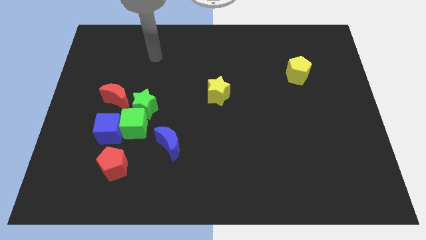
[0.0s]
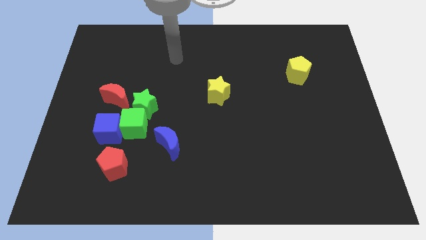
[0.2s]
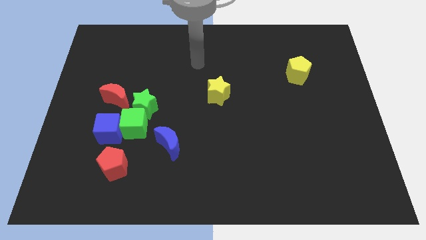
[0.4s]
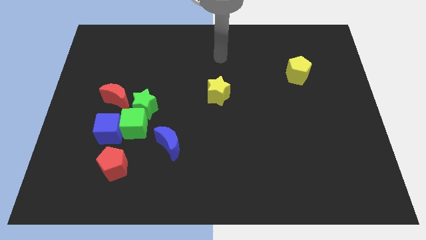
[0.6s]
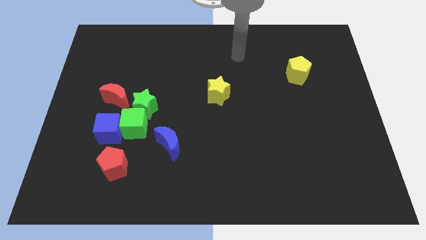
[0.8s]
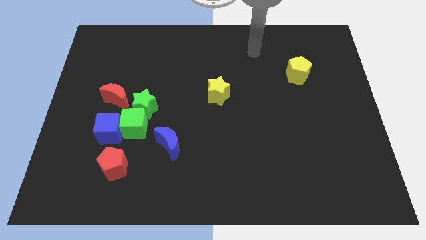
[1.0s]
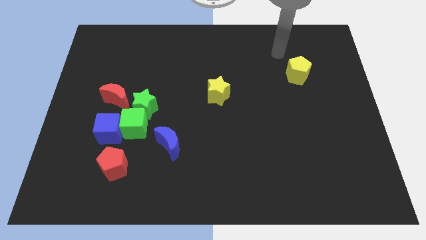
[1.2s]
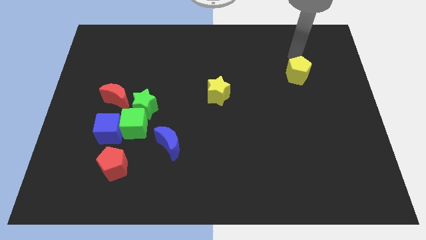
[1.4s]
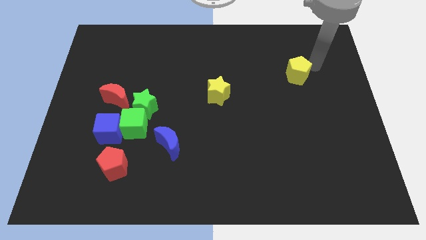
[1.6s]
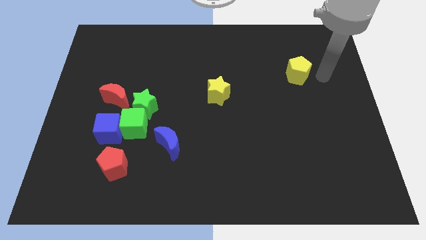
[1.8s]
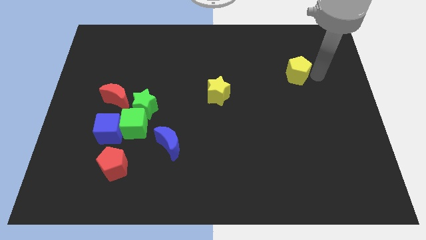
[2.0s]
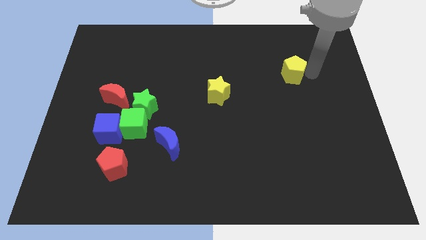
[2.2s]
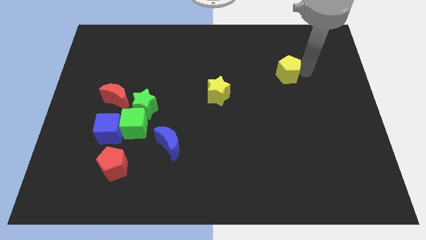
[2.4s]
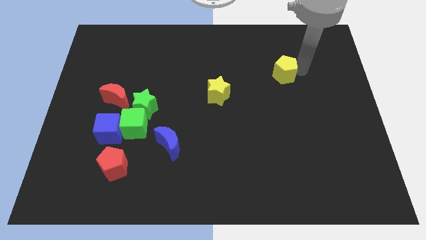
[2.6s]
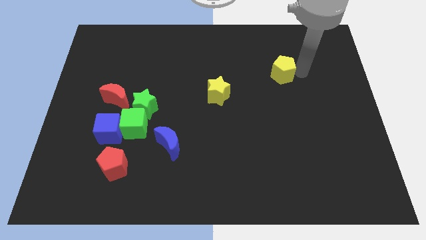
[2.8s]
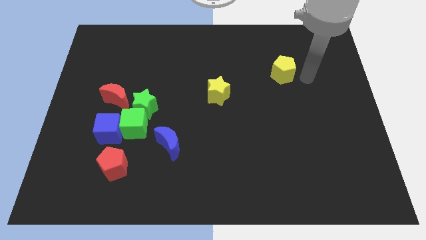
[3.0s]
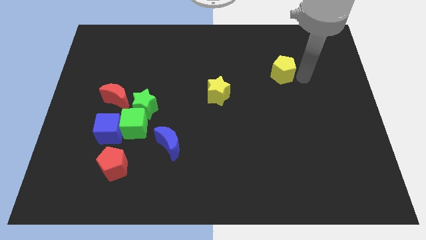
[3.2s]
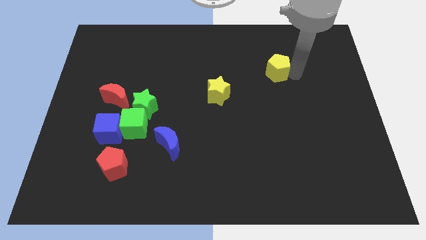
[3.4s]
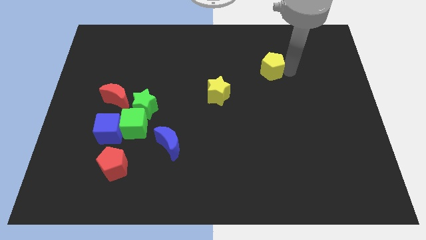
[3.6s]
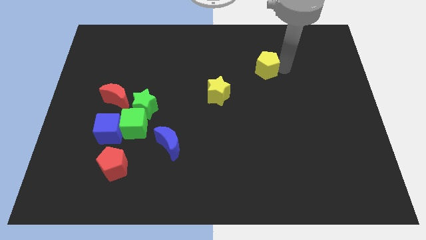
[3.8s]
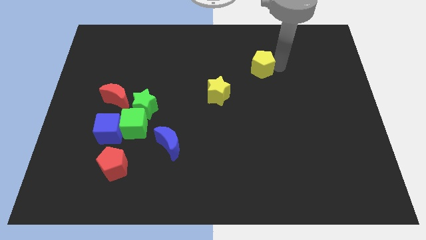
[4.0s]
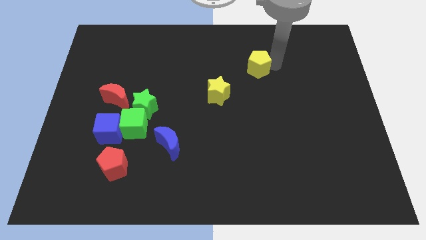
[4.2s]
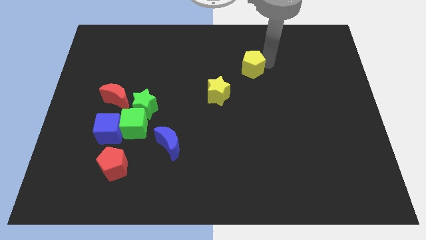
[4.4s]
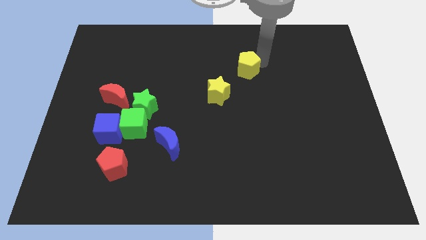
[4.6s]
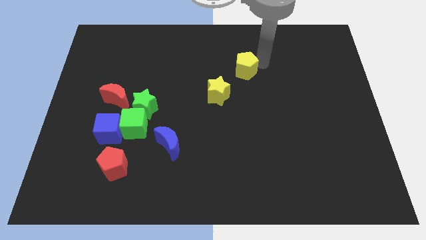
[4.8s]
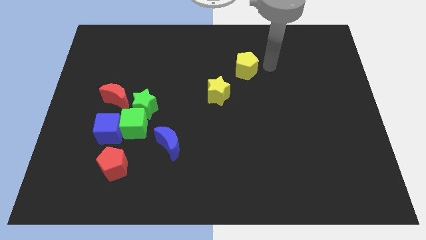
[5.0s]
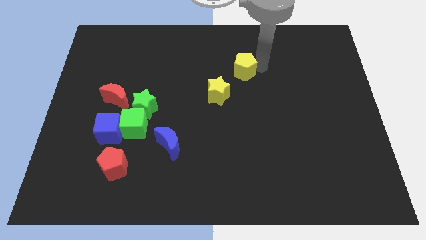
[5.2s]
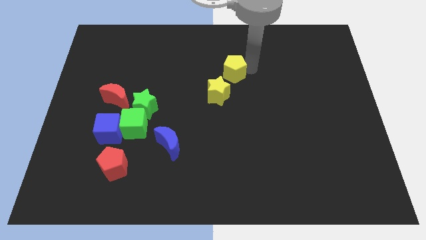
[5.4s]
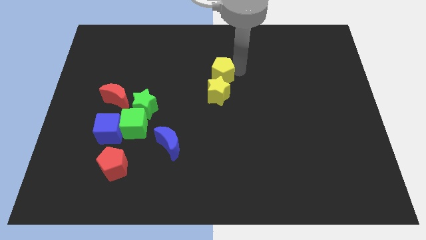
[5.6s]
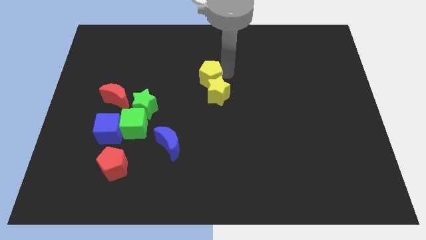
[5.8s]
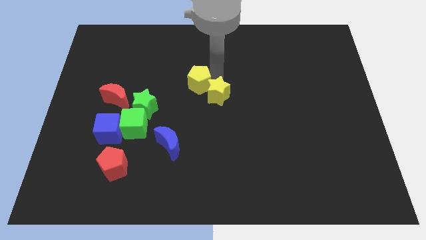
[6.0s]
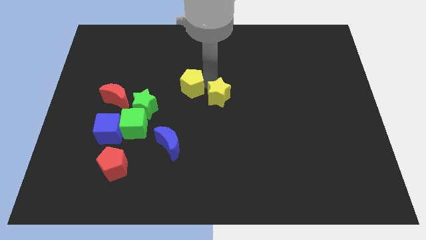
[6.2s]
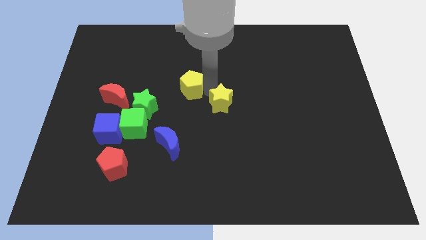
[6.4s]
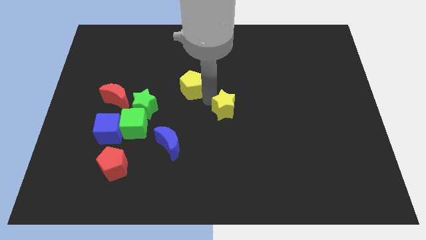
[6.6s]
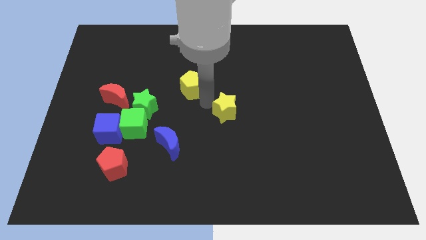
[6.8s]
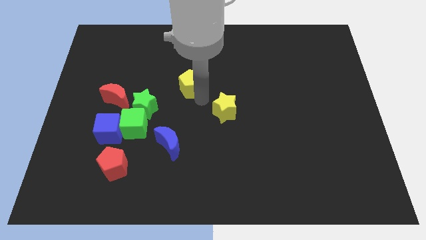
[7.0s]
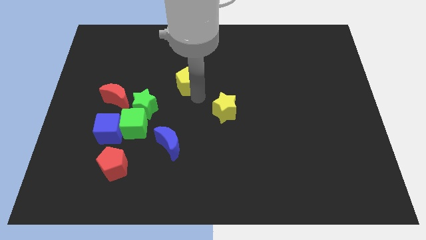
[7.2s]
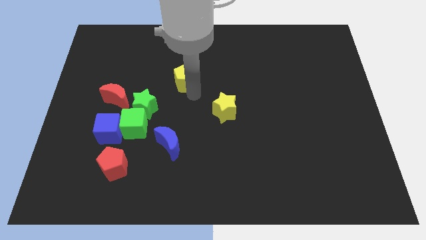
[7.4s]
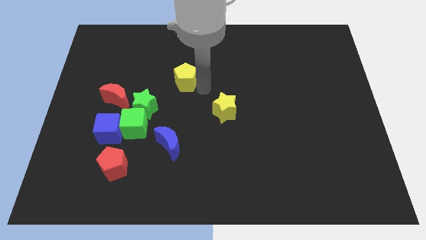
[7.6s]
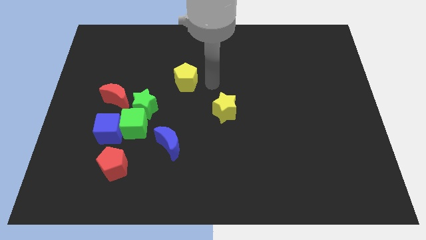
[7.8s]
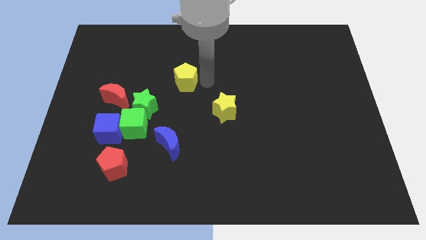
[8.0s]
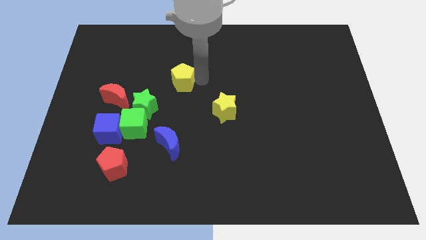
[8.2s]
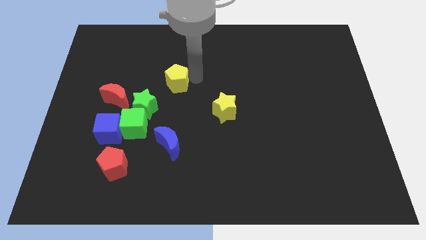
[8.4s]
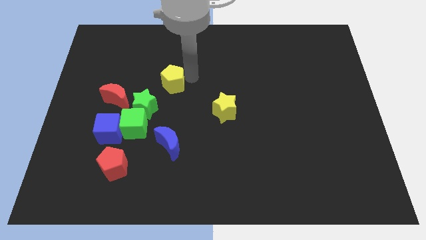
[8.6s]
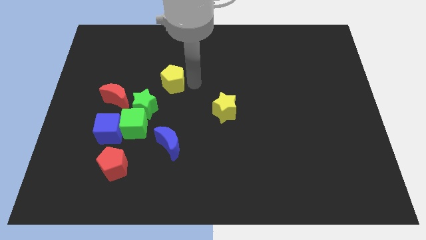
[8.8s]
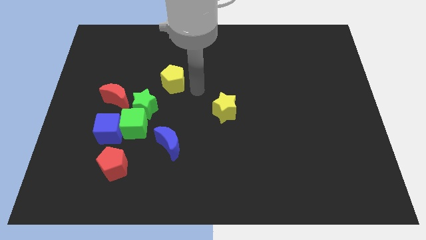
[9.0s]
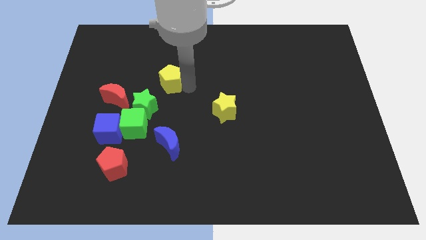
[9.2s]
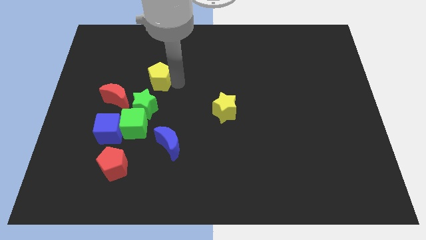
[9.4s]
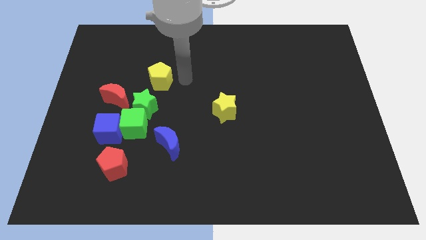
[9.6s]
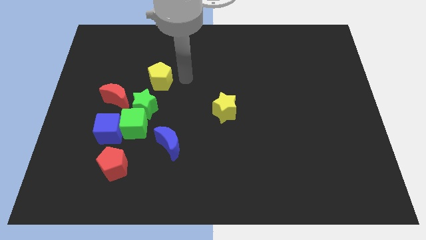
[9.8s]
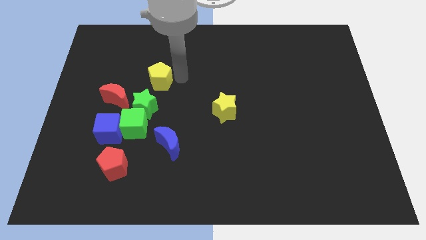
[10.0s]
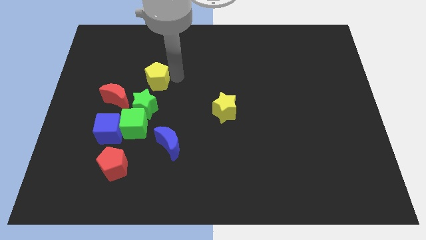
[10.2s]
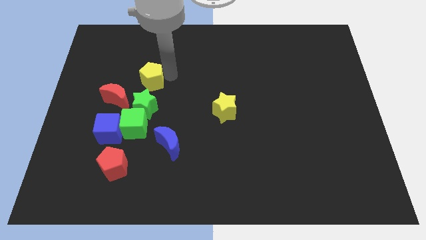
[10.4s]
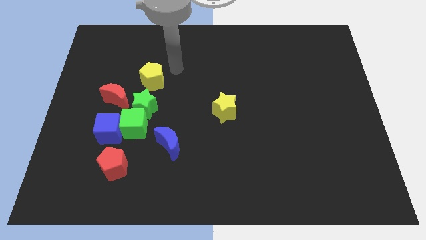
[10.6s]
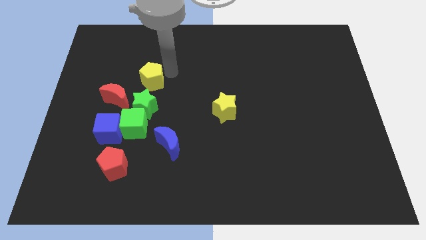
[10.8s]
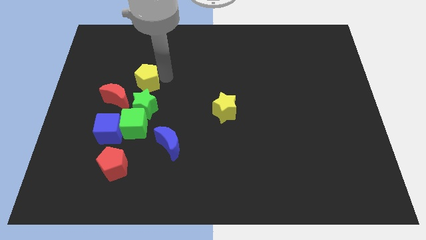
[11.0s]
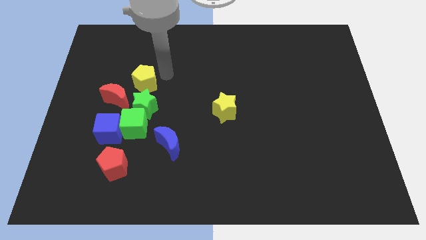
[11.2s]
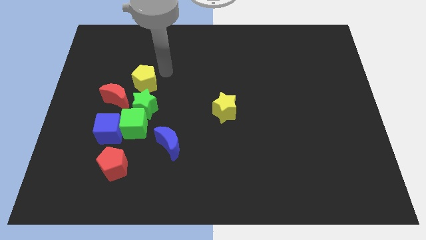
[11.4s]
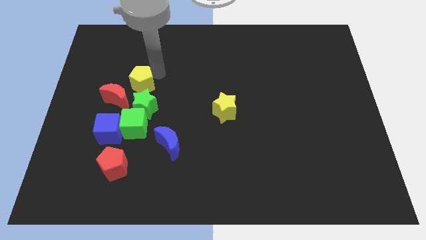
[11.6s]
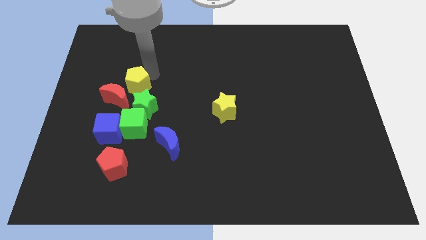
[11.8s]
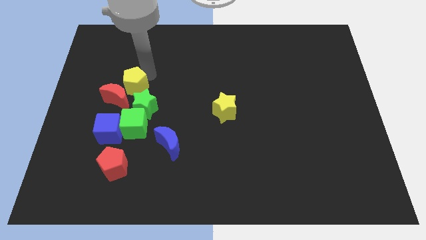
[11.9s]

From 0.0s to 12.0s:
put the yellow pentagon to the top side of the blue cube

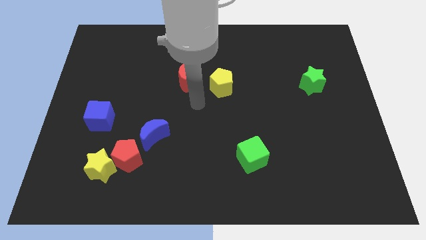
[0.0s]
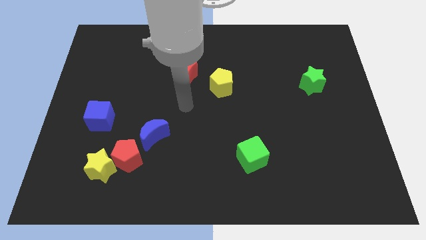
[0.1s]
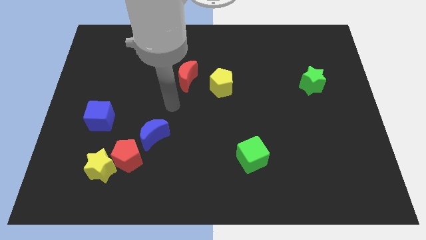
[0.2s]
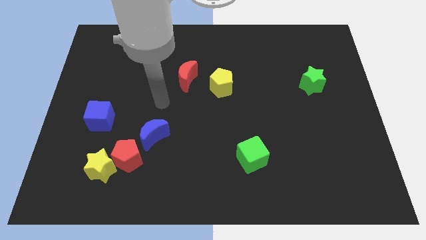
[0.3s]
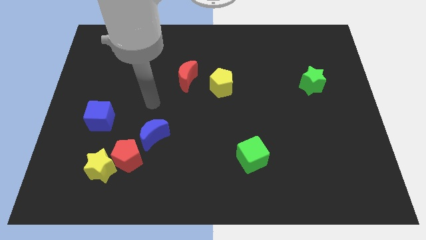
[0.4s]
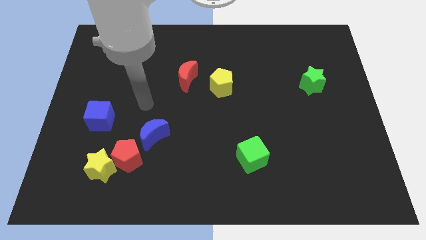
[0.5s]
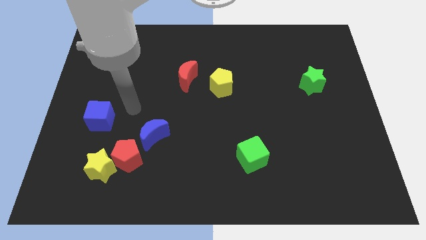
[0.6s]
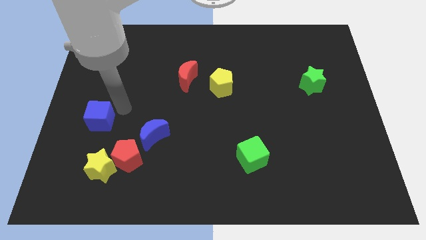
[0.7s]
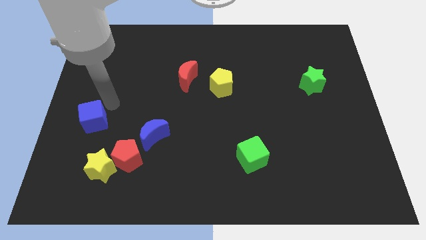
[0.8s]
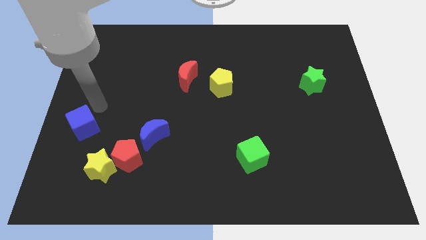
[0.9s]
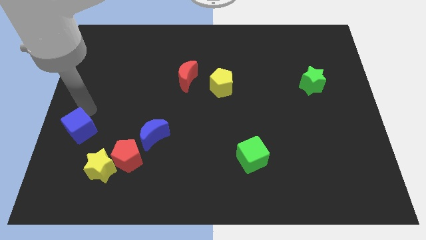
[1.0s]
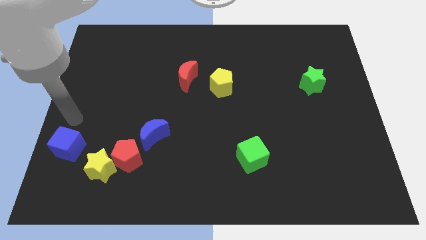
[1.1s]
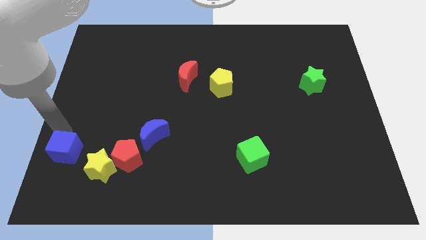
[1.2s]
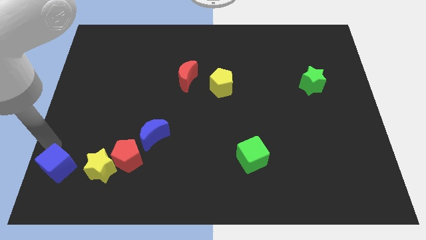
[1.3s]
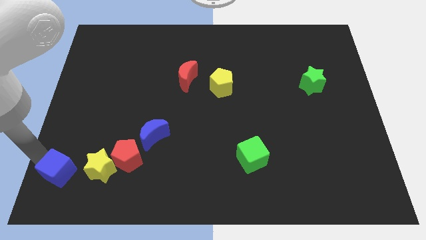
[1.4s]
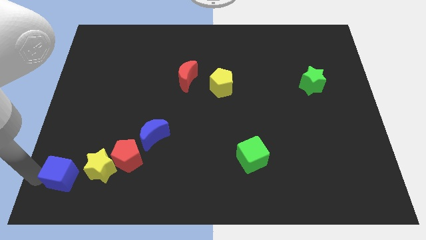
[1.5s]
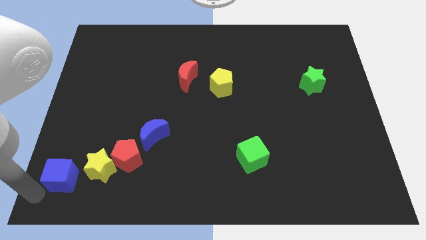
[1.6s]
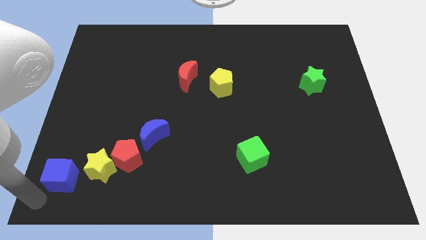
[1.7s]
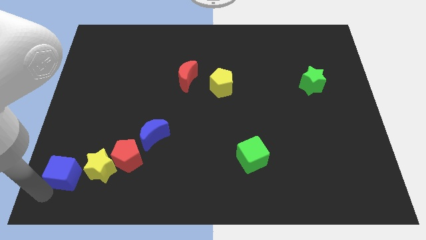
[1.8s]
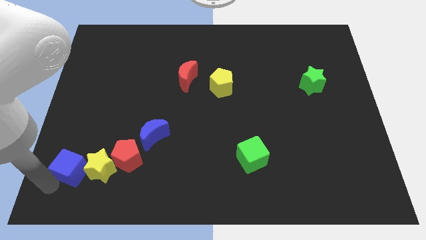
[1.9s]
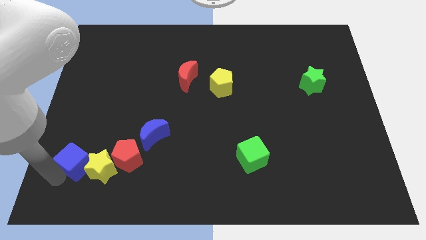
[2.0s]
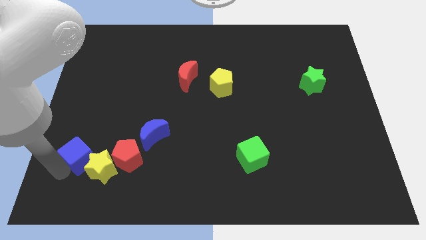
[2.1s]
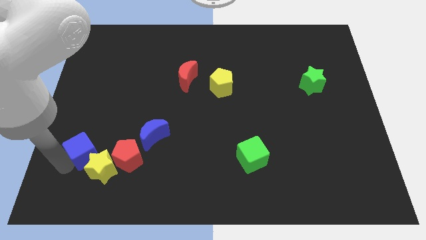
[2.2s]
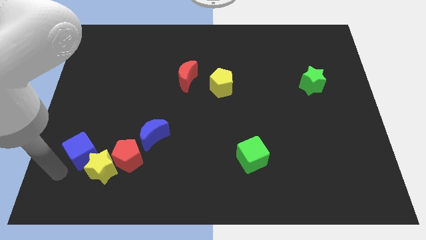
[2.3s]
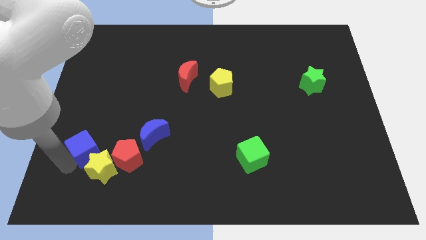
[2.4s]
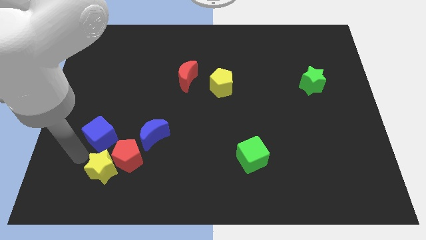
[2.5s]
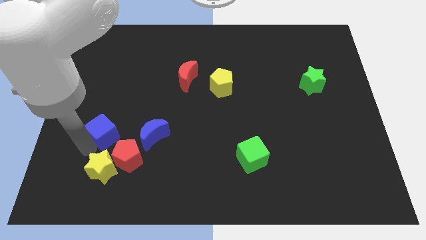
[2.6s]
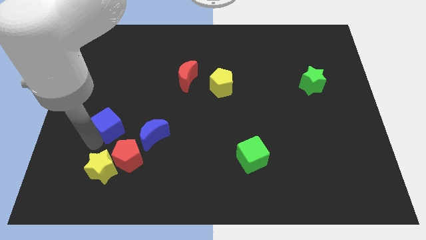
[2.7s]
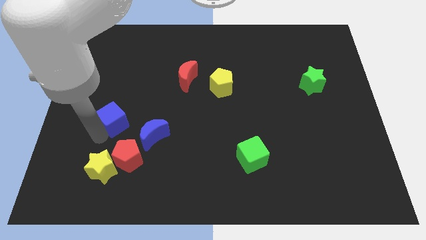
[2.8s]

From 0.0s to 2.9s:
move the blue cube diagonally up and to the left of the blue moon
